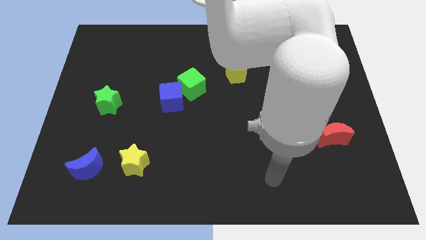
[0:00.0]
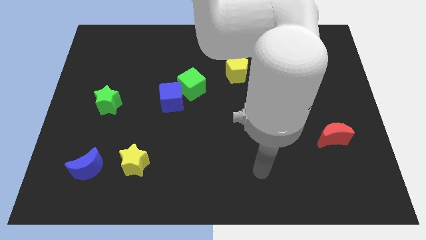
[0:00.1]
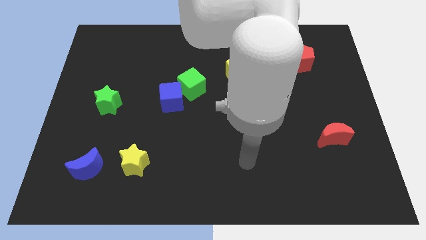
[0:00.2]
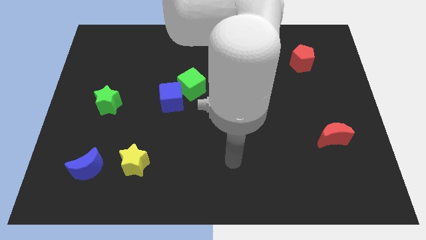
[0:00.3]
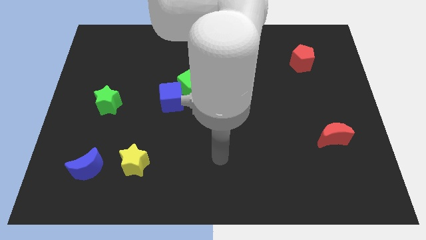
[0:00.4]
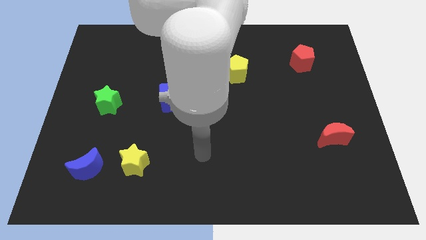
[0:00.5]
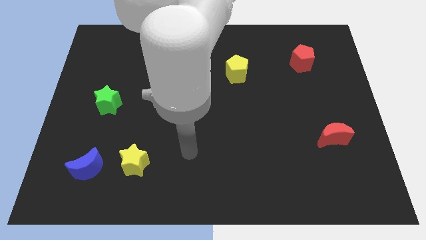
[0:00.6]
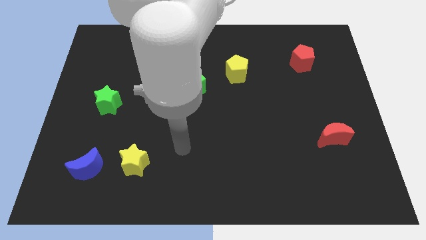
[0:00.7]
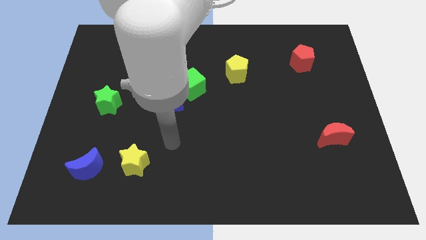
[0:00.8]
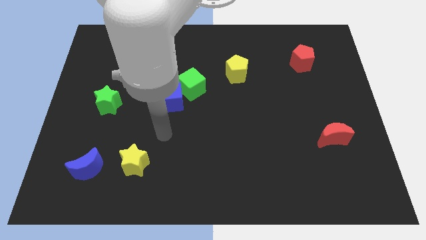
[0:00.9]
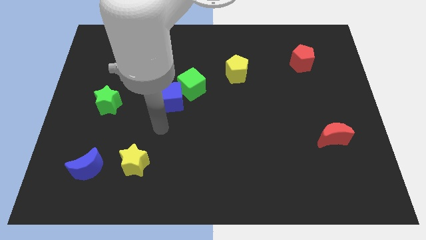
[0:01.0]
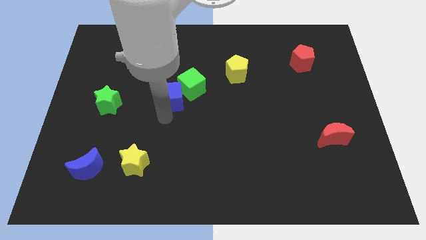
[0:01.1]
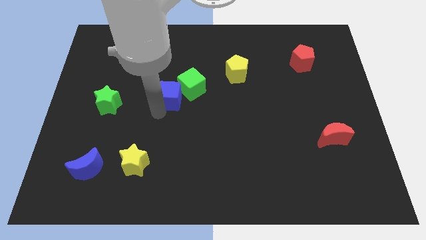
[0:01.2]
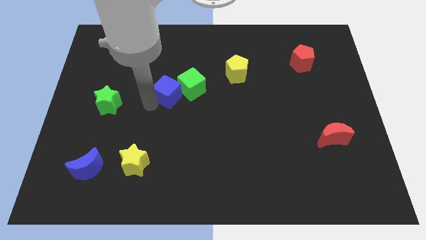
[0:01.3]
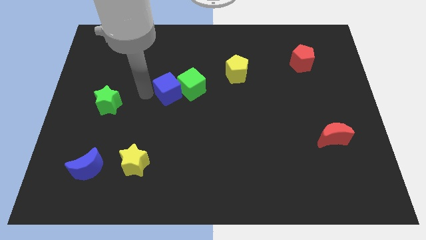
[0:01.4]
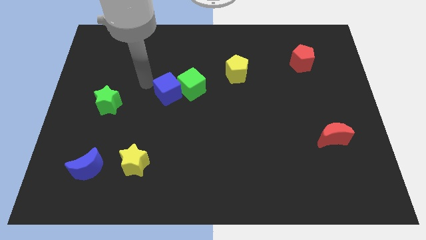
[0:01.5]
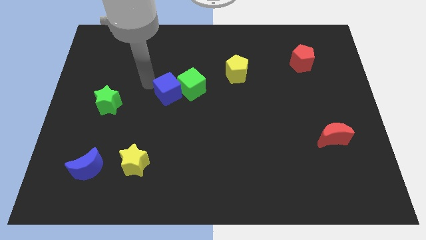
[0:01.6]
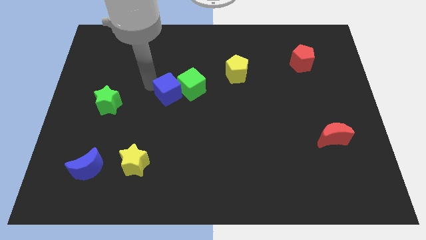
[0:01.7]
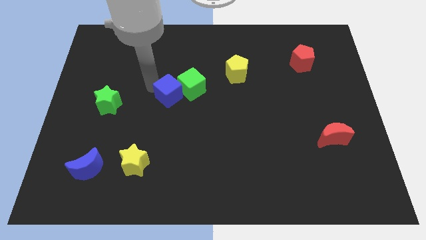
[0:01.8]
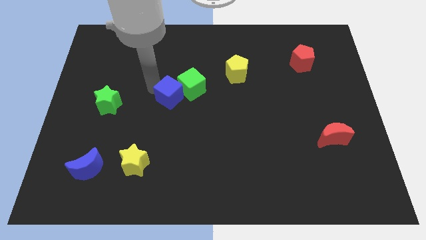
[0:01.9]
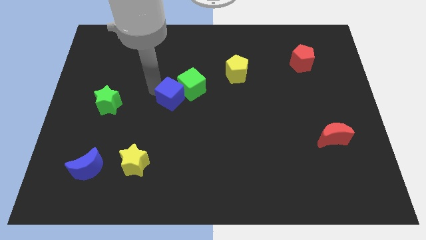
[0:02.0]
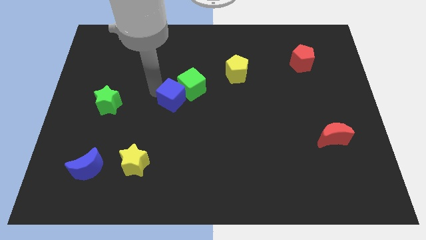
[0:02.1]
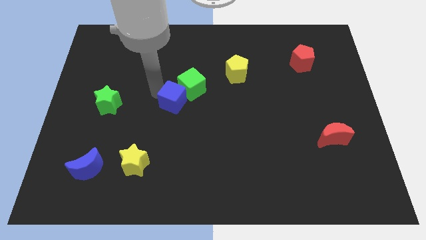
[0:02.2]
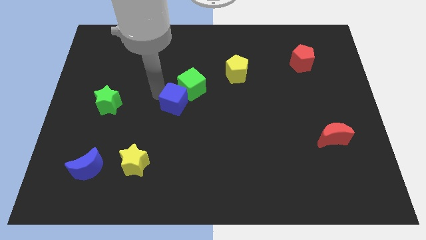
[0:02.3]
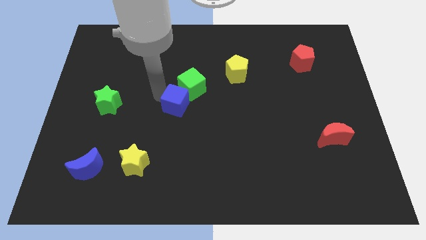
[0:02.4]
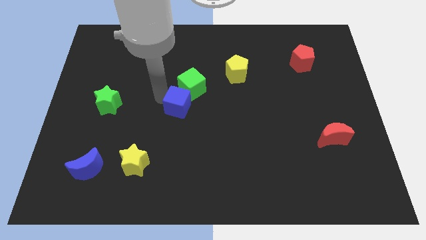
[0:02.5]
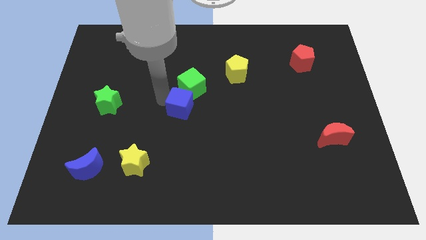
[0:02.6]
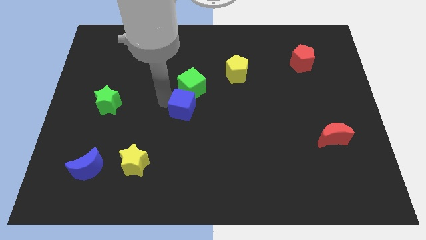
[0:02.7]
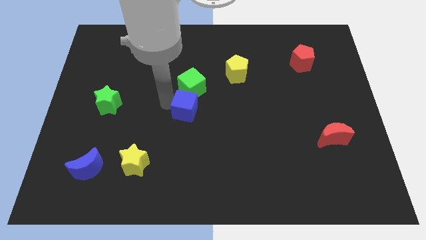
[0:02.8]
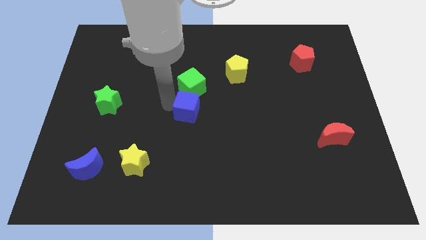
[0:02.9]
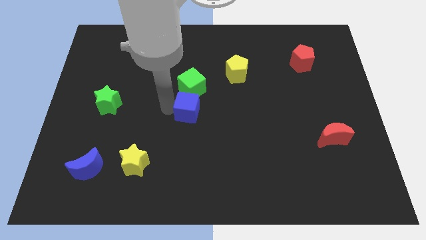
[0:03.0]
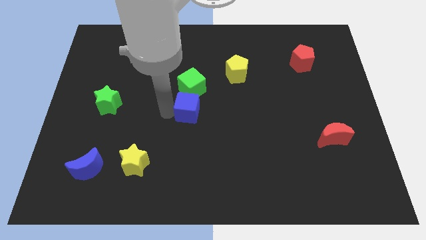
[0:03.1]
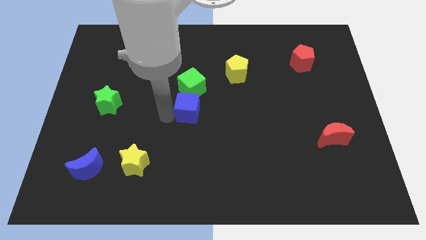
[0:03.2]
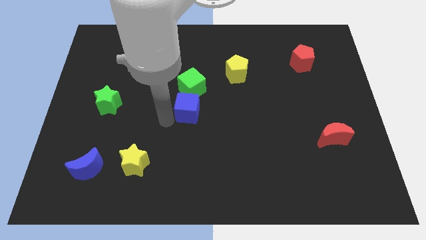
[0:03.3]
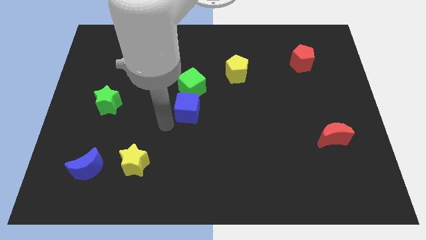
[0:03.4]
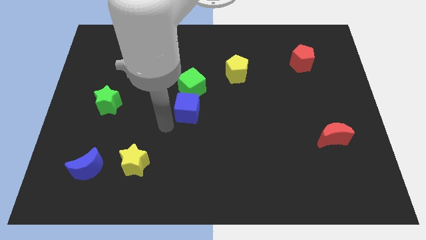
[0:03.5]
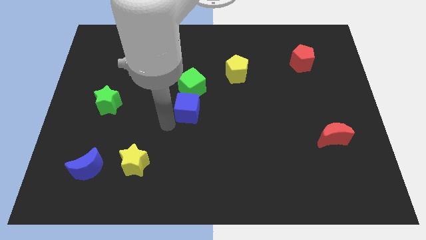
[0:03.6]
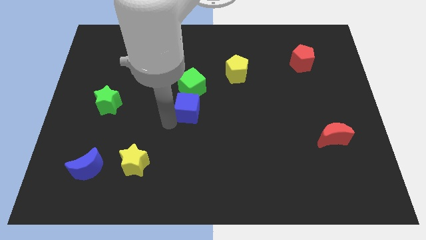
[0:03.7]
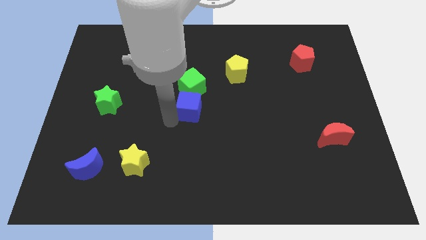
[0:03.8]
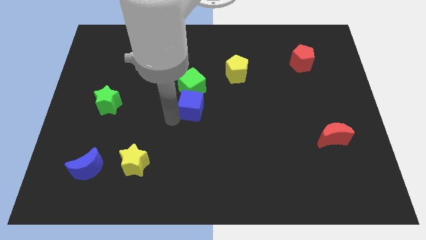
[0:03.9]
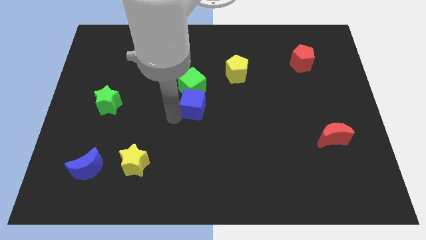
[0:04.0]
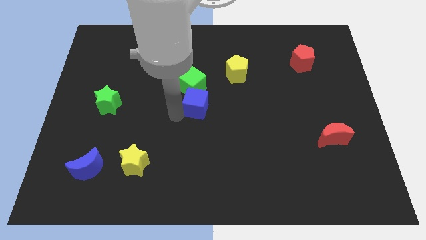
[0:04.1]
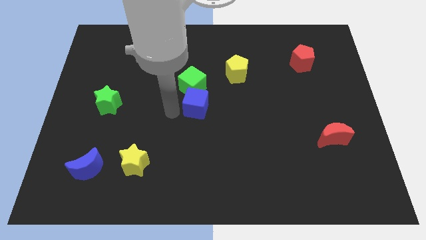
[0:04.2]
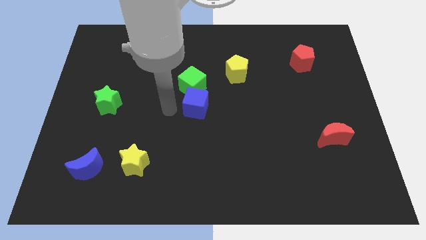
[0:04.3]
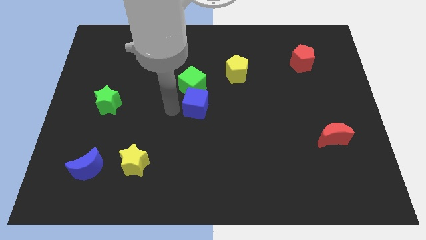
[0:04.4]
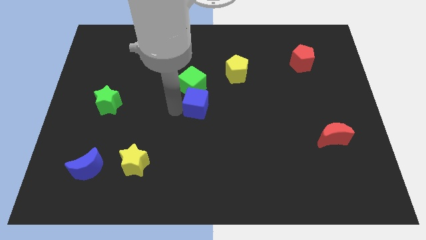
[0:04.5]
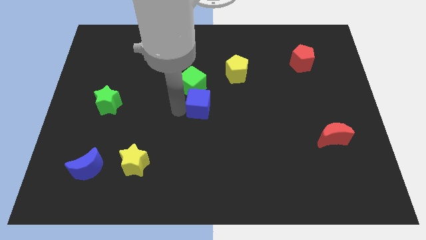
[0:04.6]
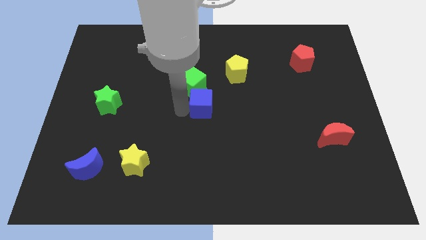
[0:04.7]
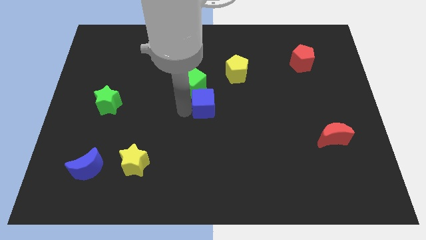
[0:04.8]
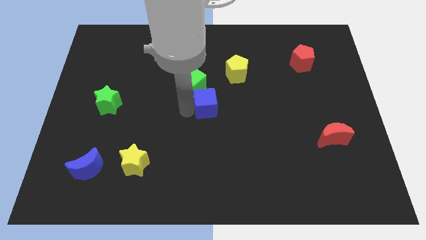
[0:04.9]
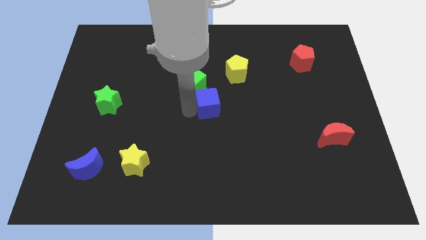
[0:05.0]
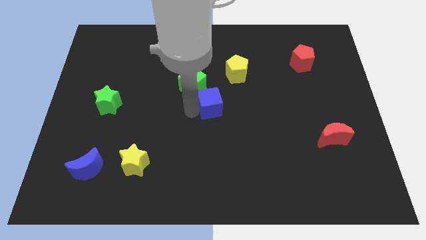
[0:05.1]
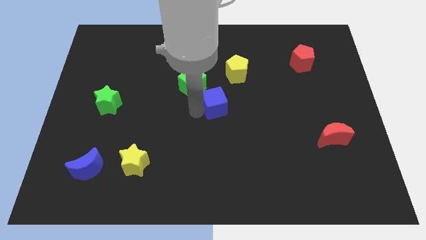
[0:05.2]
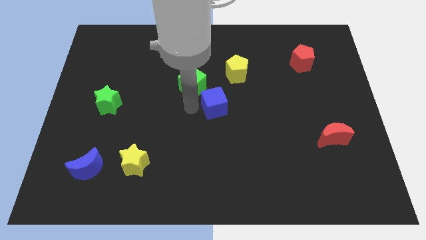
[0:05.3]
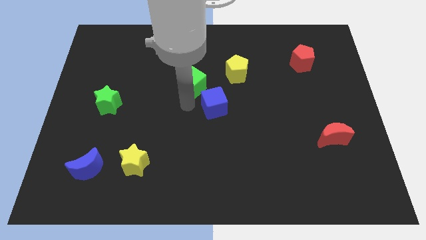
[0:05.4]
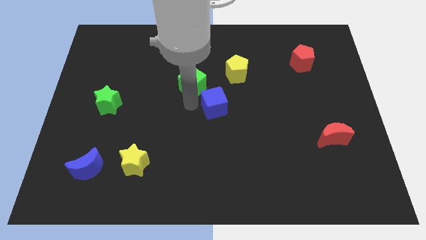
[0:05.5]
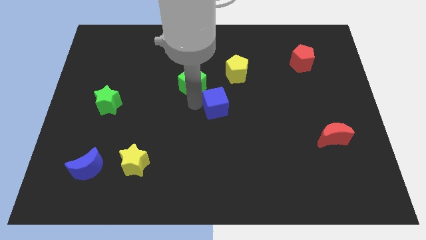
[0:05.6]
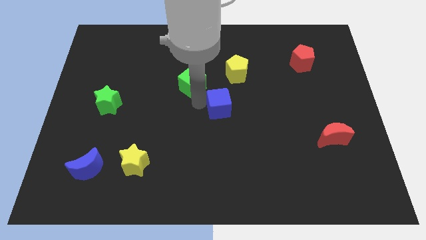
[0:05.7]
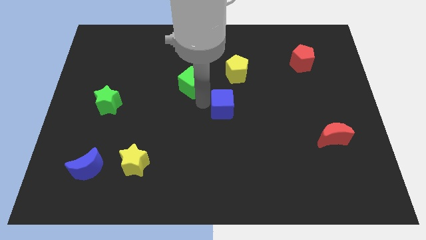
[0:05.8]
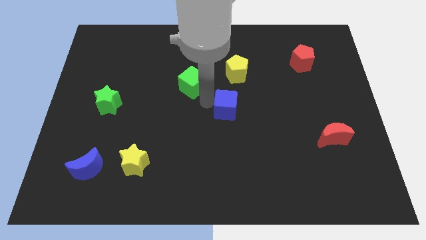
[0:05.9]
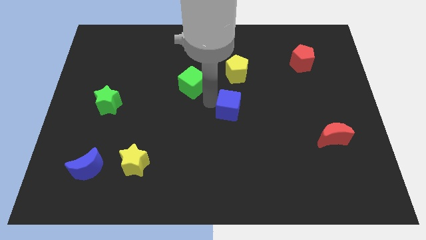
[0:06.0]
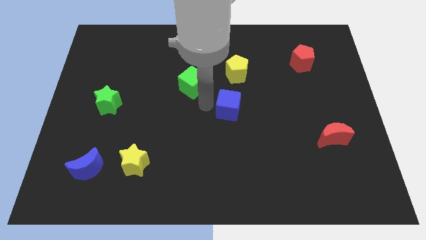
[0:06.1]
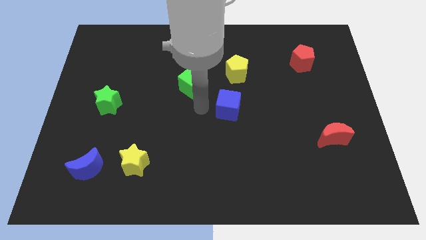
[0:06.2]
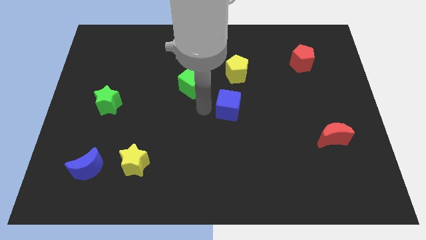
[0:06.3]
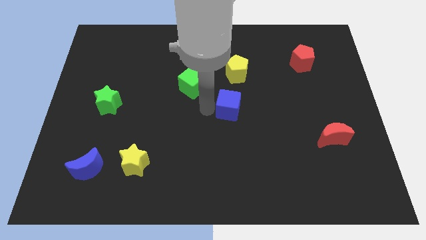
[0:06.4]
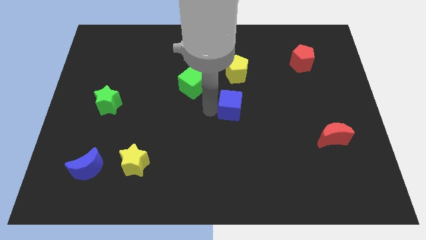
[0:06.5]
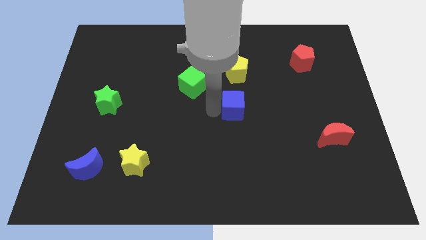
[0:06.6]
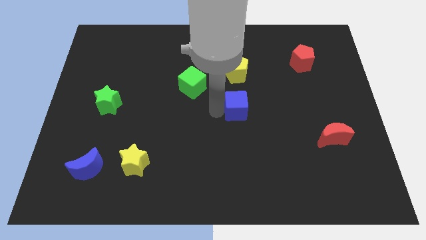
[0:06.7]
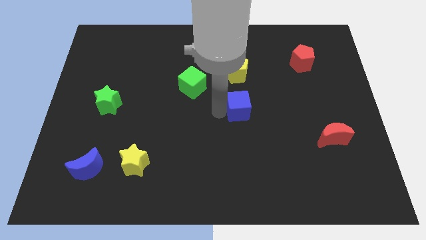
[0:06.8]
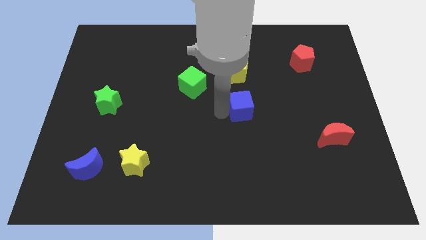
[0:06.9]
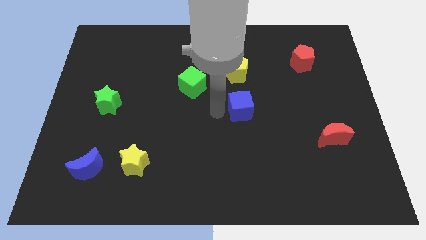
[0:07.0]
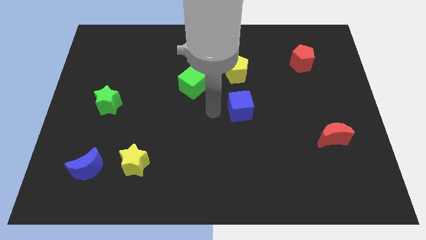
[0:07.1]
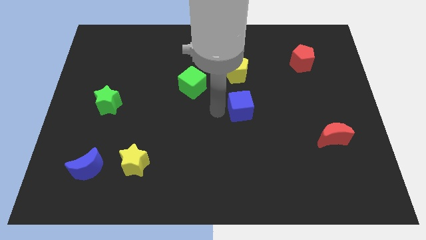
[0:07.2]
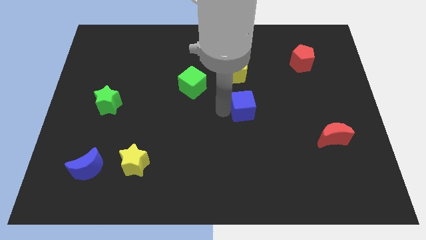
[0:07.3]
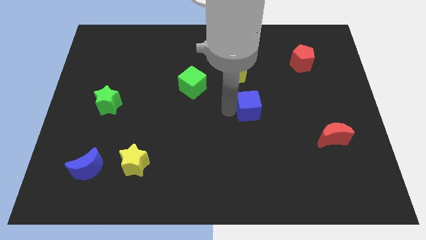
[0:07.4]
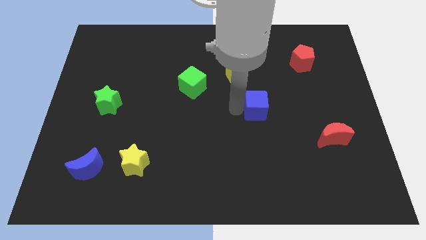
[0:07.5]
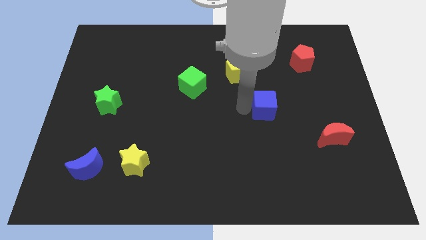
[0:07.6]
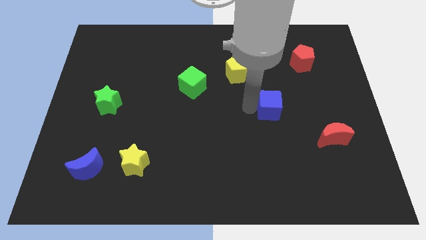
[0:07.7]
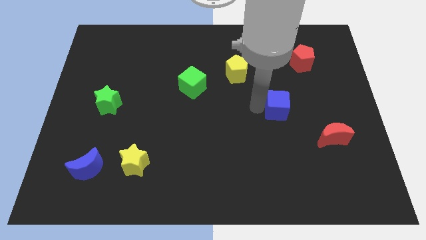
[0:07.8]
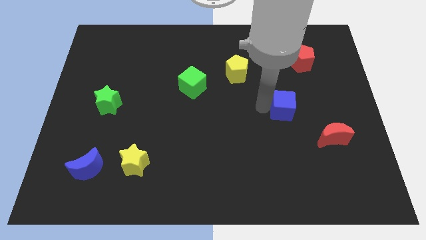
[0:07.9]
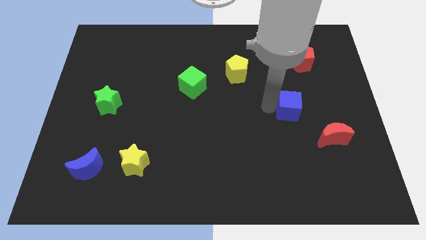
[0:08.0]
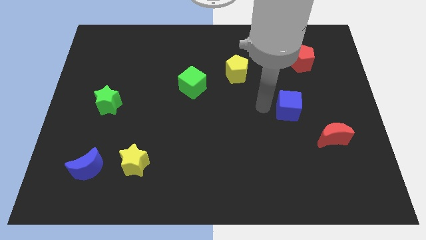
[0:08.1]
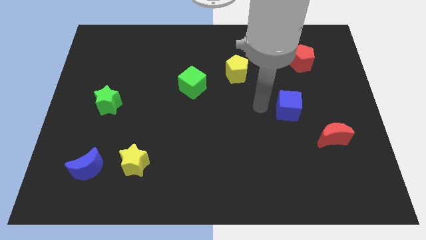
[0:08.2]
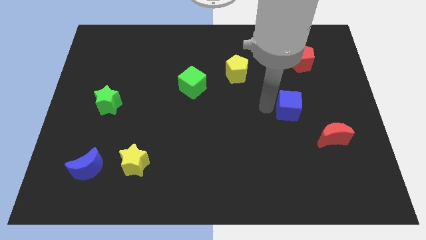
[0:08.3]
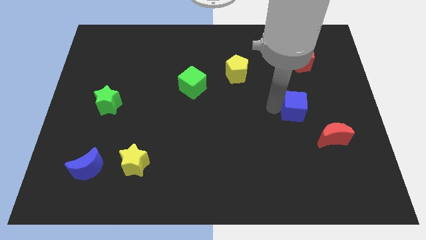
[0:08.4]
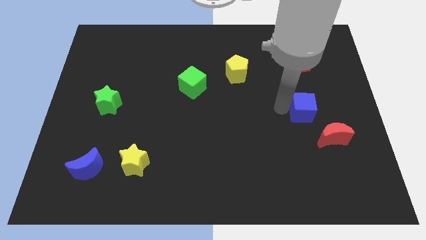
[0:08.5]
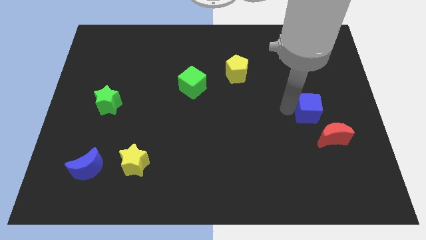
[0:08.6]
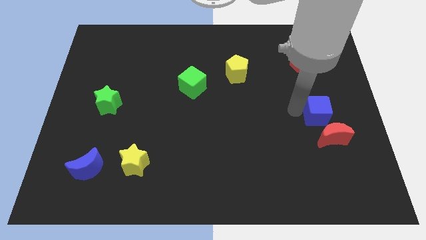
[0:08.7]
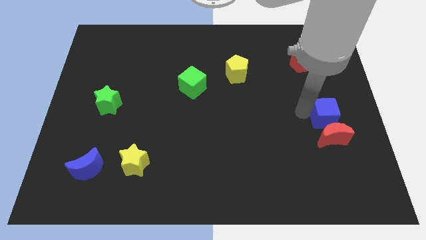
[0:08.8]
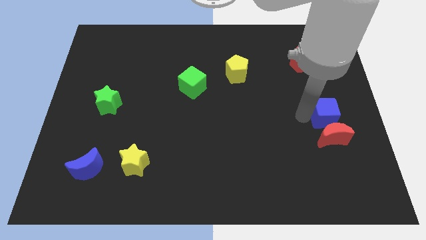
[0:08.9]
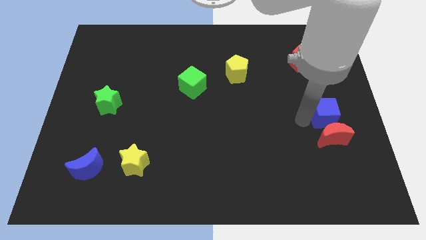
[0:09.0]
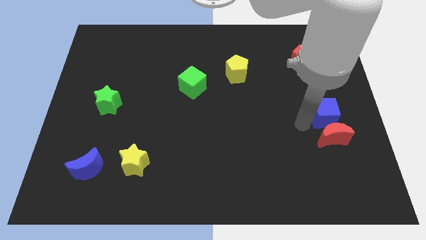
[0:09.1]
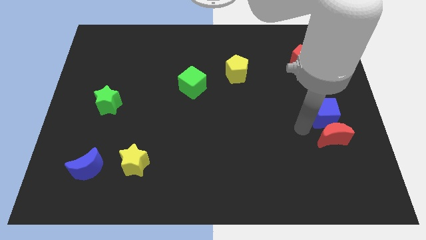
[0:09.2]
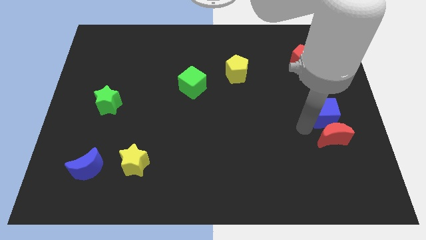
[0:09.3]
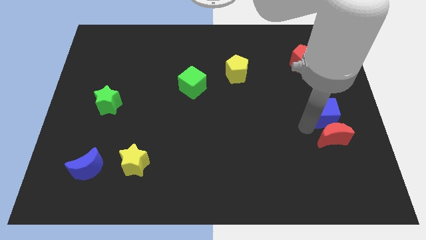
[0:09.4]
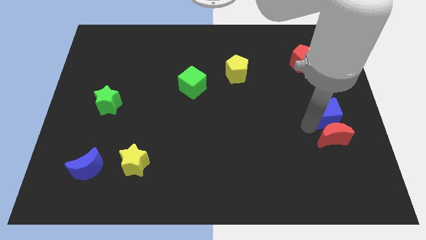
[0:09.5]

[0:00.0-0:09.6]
slide the blue cube to the right side
